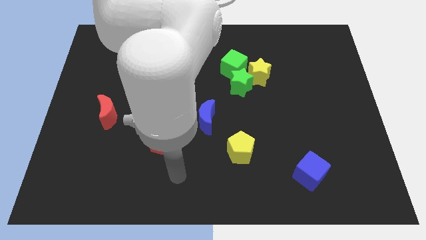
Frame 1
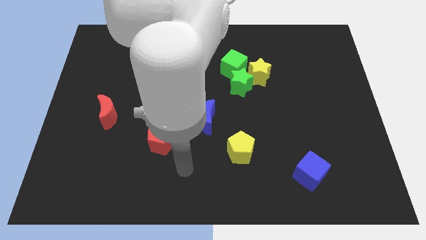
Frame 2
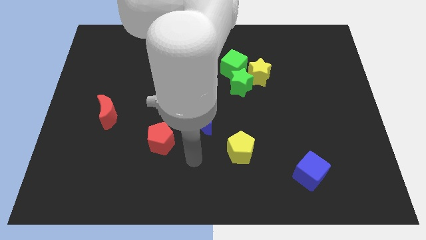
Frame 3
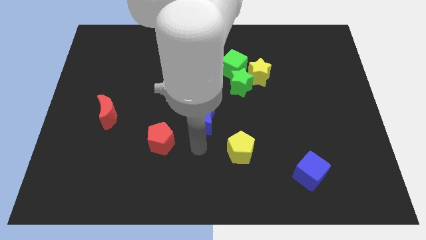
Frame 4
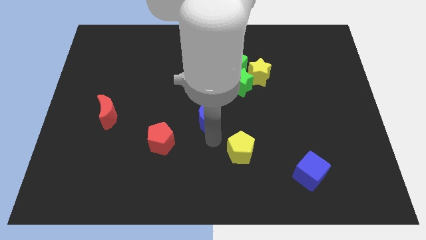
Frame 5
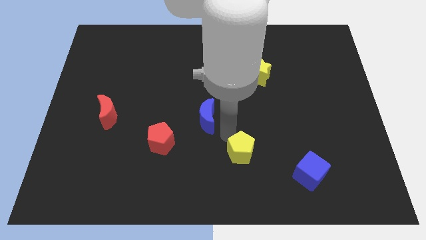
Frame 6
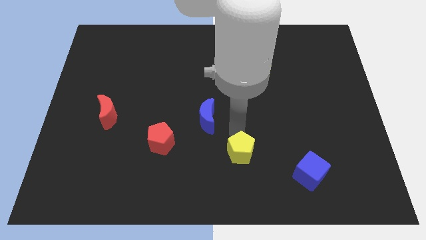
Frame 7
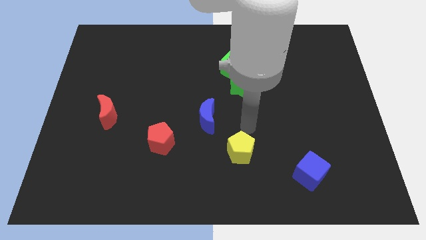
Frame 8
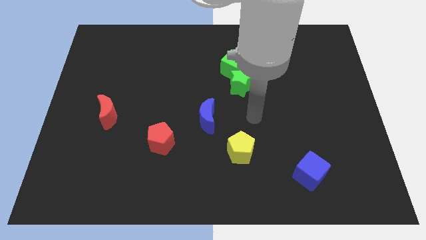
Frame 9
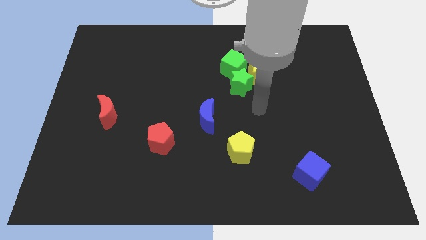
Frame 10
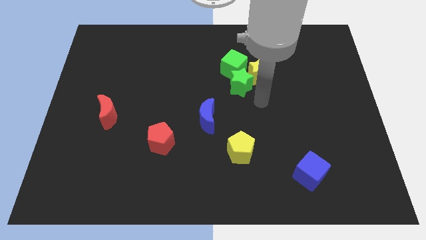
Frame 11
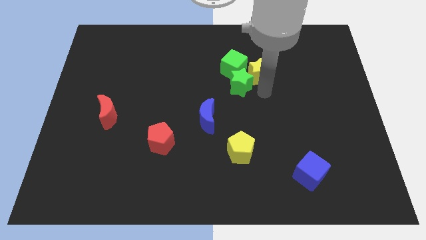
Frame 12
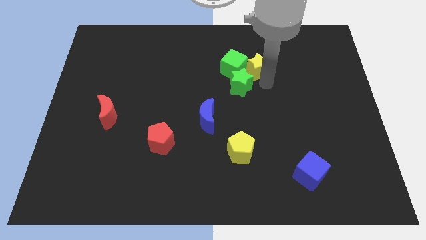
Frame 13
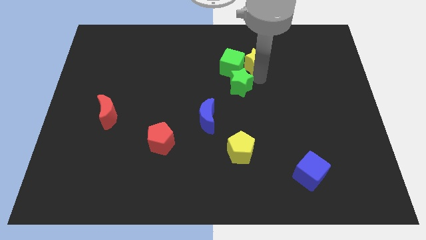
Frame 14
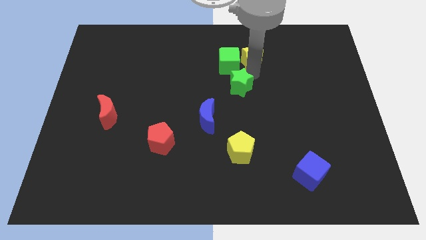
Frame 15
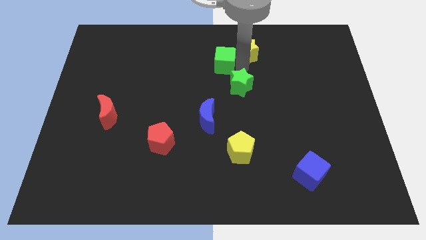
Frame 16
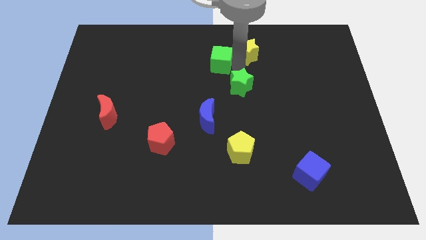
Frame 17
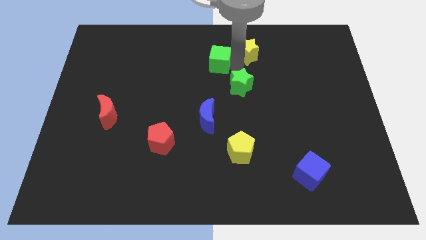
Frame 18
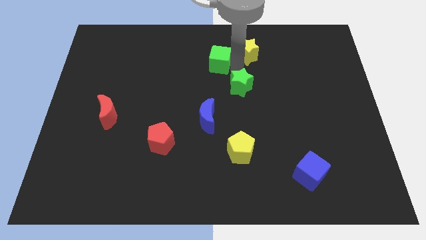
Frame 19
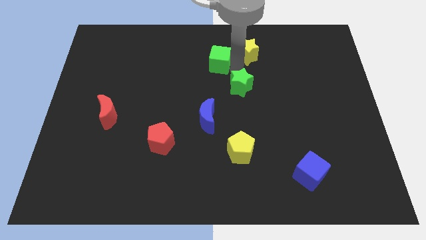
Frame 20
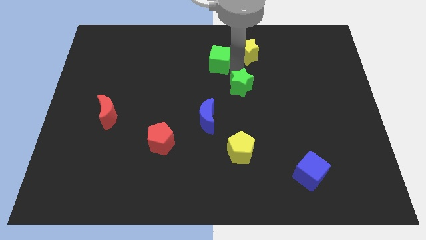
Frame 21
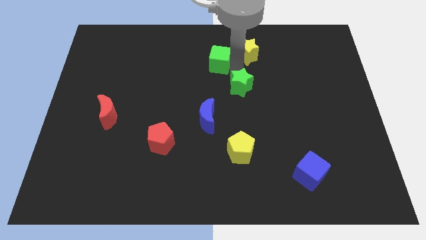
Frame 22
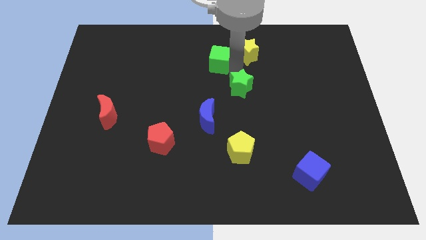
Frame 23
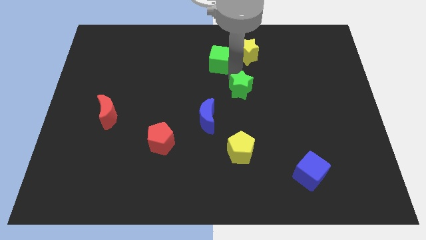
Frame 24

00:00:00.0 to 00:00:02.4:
separate the green star from the green cube and yellow star

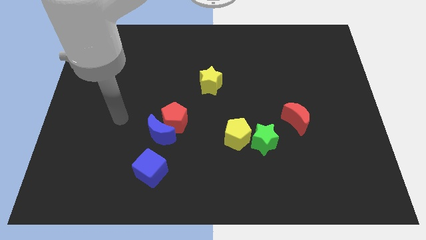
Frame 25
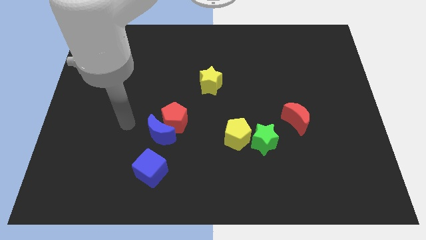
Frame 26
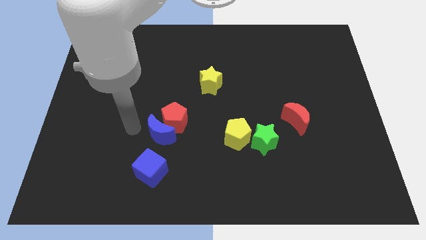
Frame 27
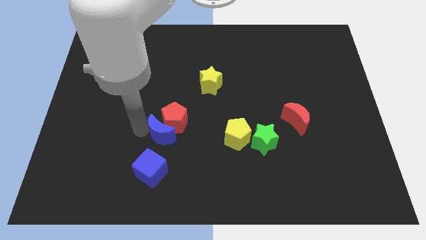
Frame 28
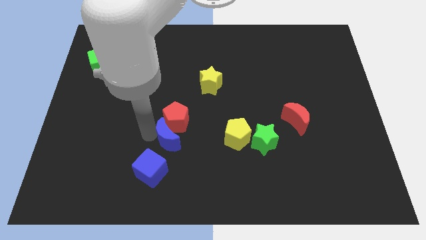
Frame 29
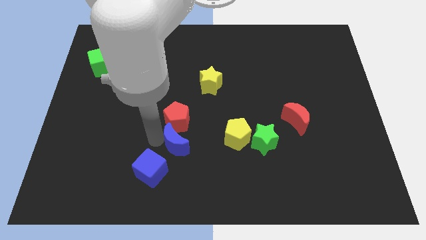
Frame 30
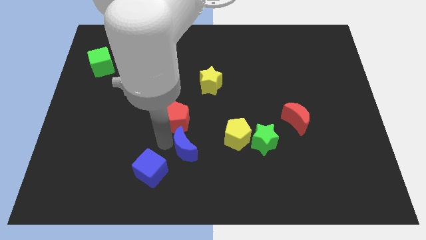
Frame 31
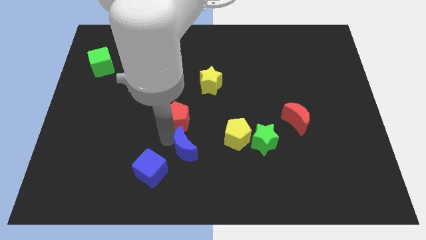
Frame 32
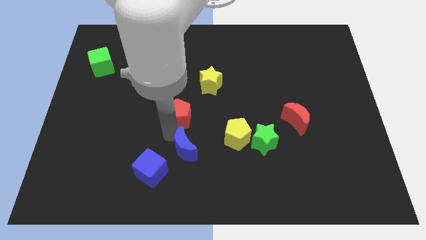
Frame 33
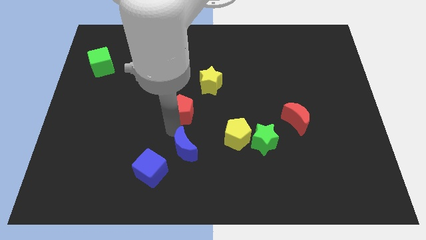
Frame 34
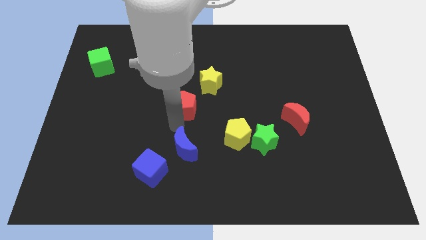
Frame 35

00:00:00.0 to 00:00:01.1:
move the red pentagon away from the blue moon

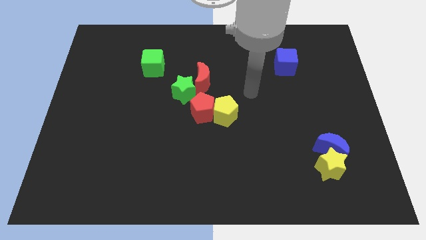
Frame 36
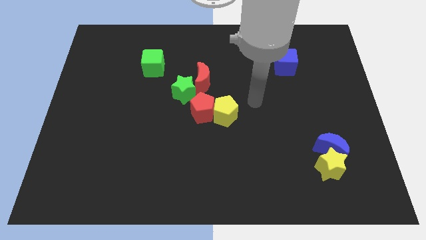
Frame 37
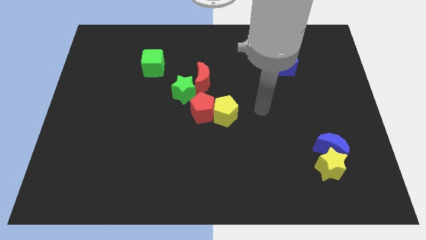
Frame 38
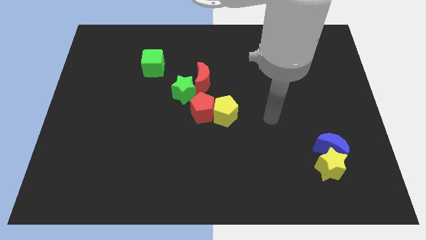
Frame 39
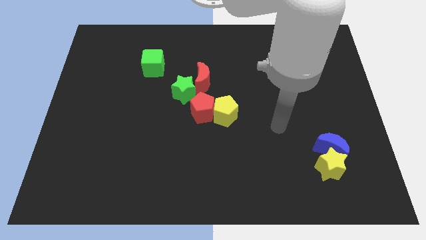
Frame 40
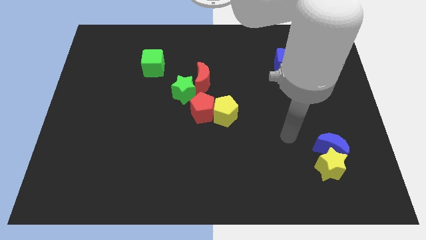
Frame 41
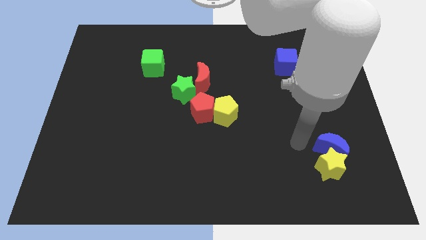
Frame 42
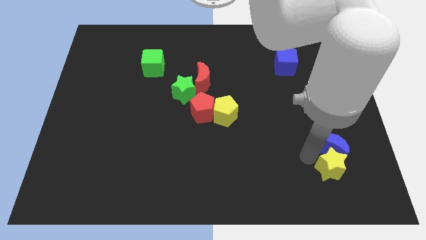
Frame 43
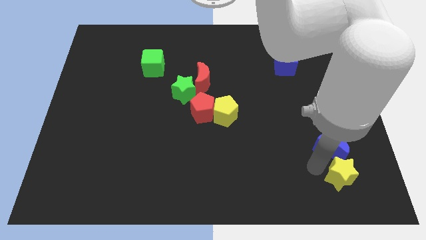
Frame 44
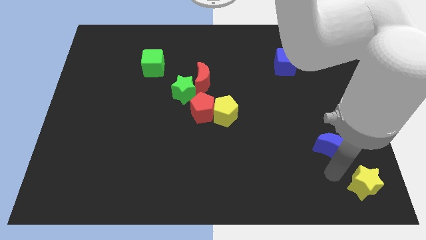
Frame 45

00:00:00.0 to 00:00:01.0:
pull the blue moon apart from the yellow star

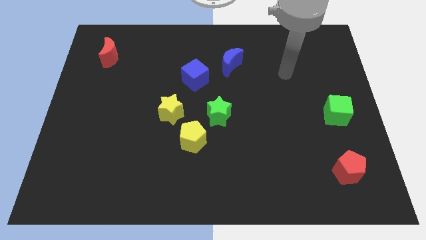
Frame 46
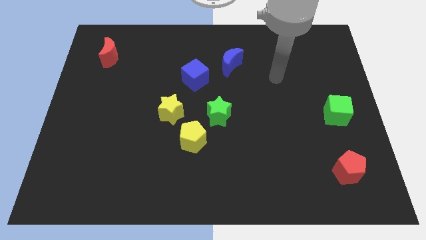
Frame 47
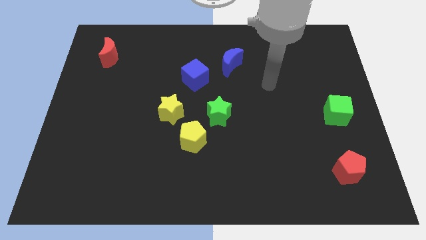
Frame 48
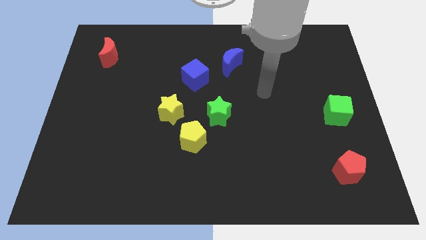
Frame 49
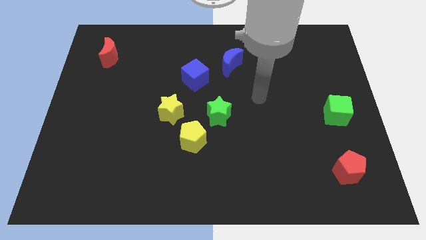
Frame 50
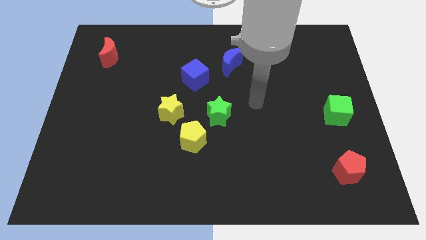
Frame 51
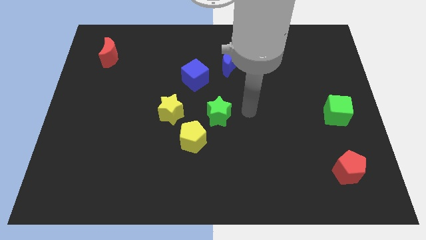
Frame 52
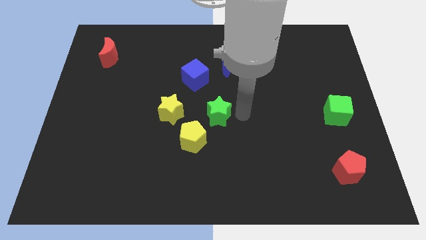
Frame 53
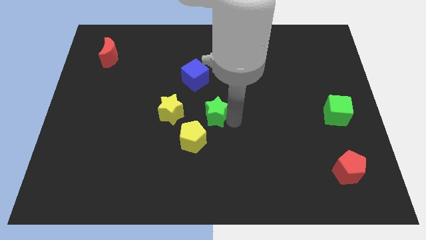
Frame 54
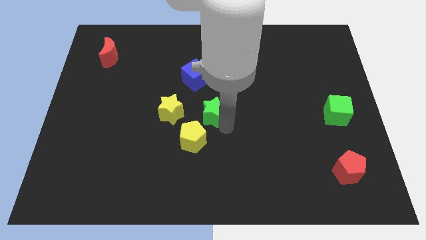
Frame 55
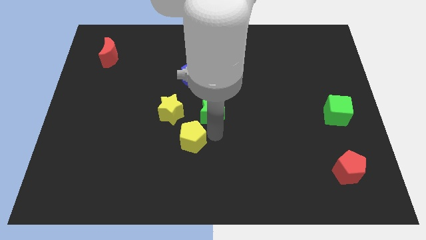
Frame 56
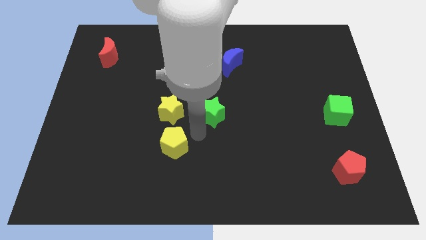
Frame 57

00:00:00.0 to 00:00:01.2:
pull the green star apart from the yellow pentagon

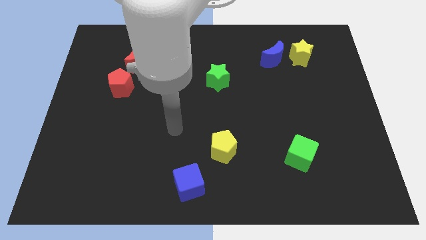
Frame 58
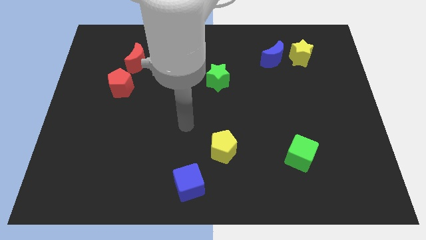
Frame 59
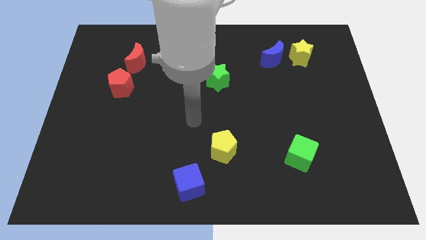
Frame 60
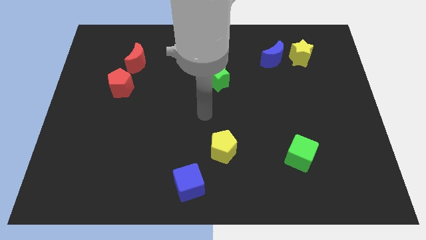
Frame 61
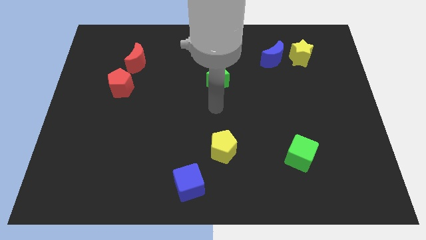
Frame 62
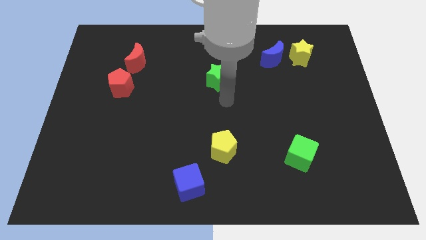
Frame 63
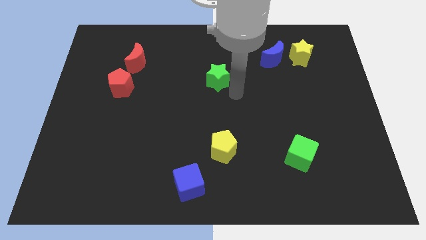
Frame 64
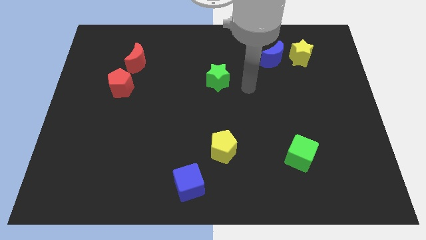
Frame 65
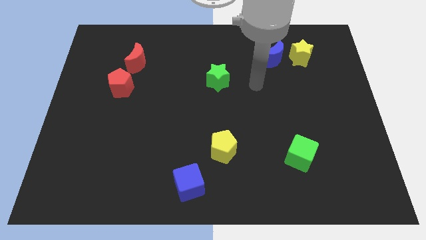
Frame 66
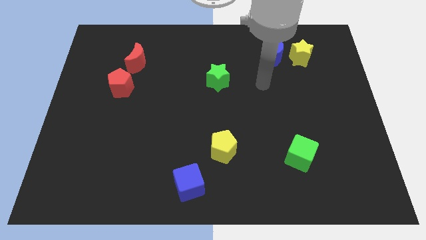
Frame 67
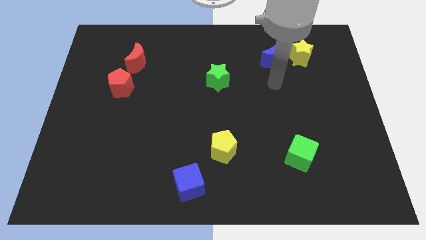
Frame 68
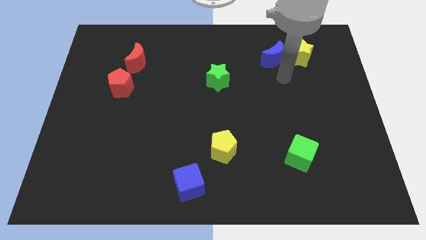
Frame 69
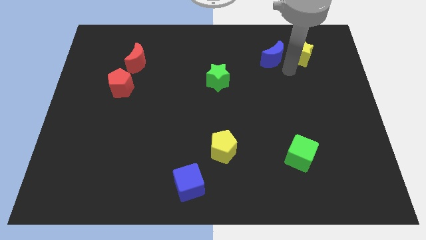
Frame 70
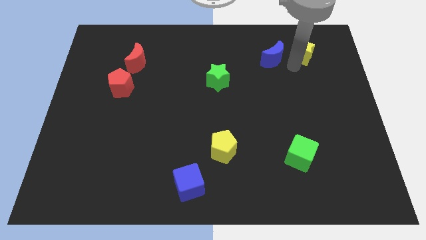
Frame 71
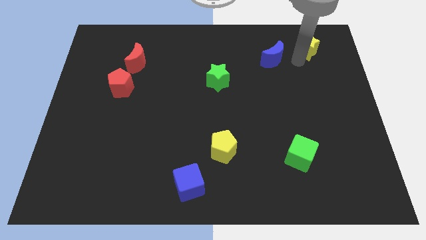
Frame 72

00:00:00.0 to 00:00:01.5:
separate the blue moon from the yellow star

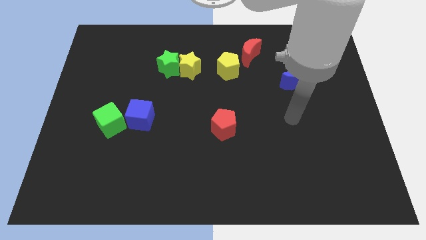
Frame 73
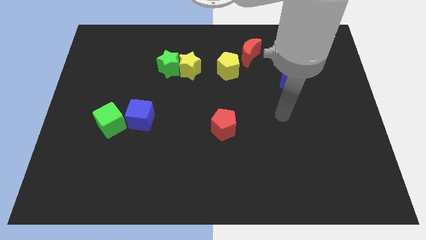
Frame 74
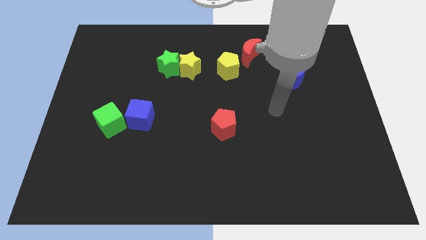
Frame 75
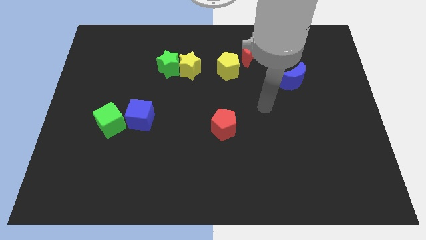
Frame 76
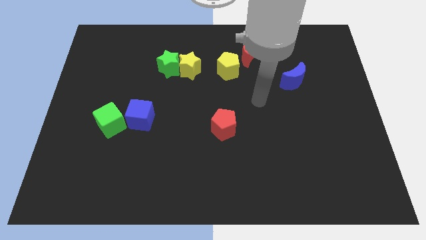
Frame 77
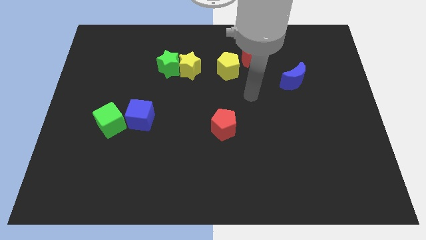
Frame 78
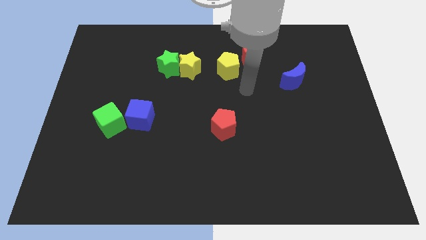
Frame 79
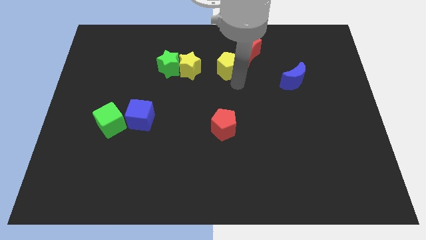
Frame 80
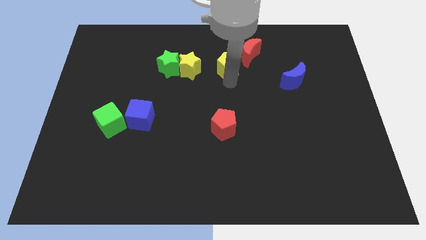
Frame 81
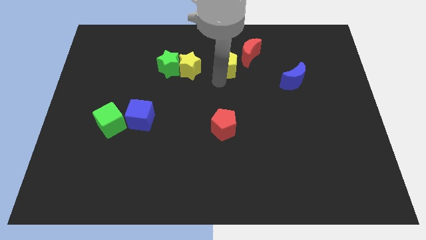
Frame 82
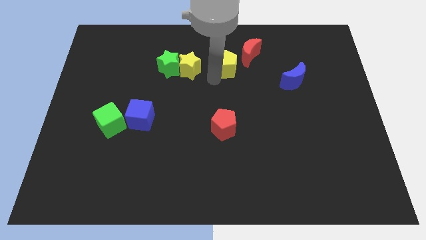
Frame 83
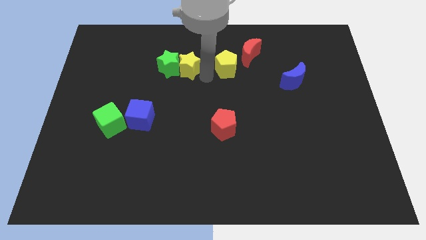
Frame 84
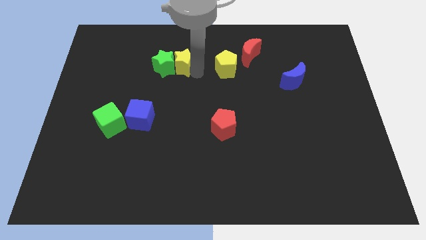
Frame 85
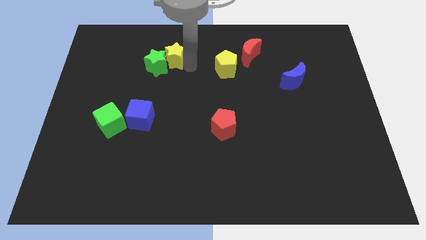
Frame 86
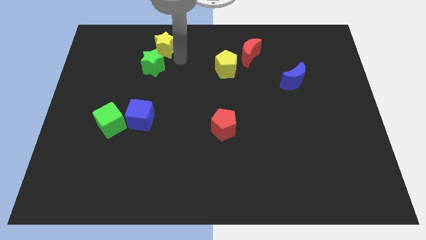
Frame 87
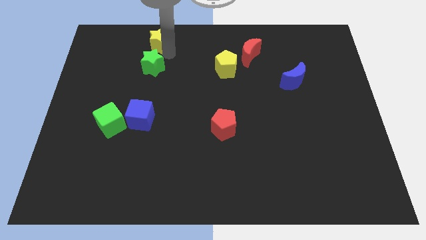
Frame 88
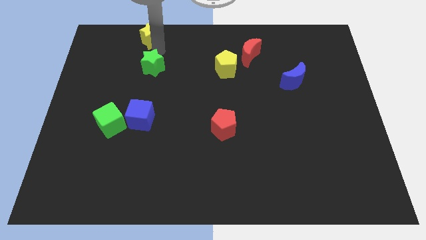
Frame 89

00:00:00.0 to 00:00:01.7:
move the green star away from the yellow star

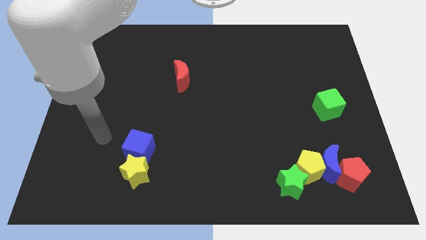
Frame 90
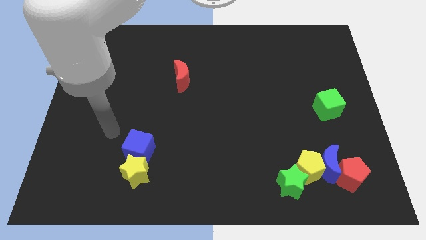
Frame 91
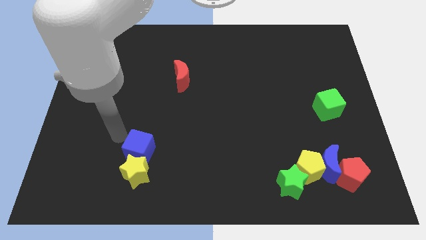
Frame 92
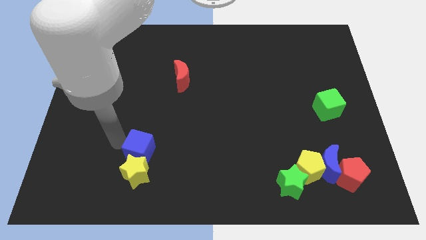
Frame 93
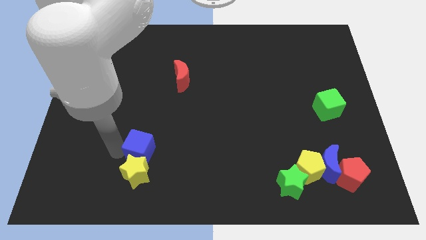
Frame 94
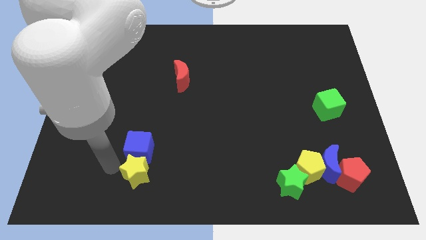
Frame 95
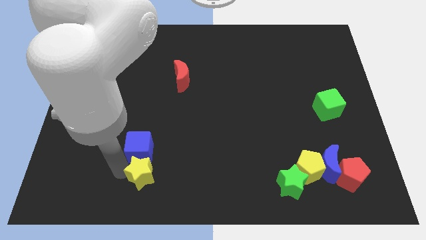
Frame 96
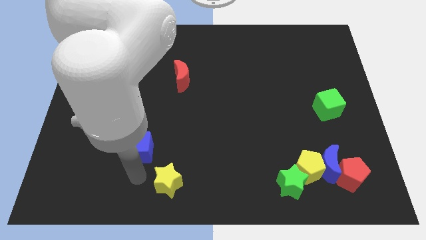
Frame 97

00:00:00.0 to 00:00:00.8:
move the blue cube away from the yellow star
